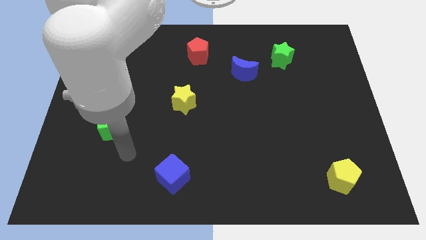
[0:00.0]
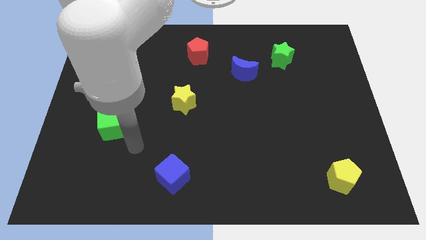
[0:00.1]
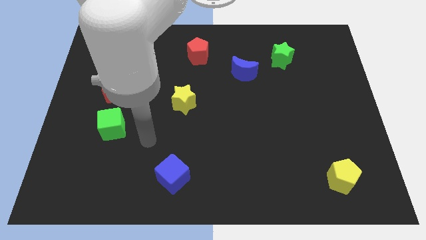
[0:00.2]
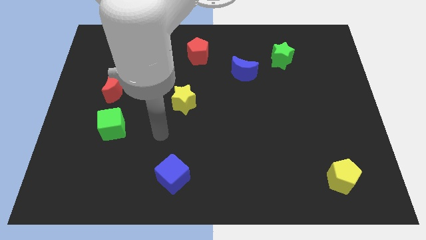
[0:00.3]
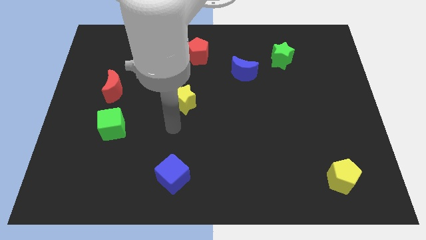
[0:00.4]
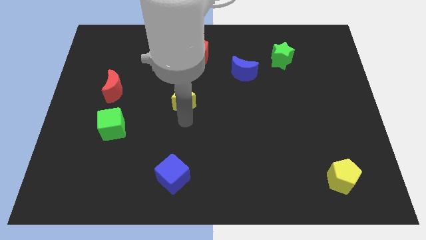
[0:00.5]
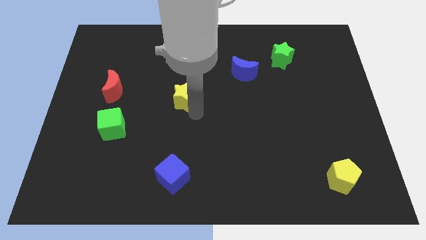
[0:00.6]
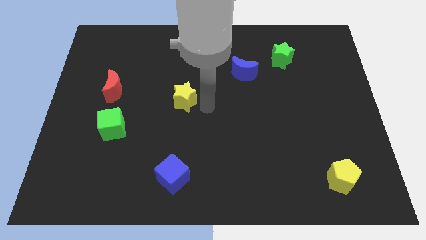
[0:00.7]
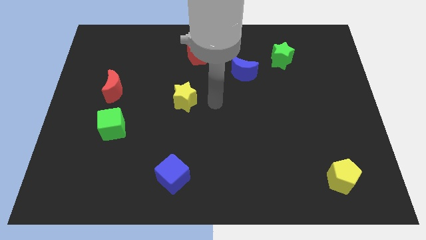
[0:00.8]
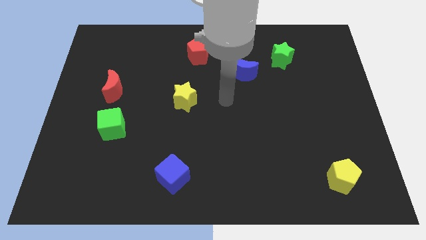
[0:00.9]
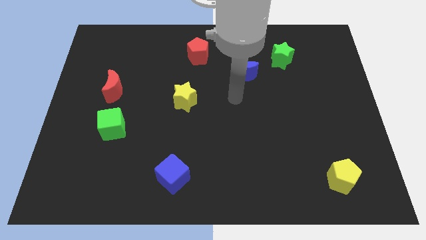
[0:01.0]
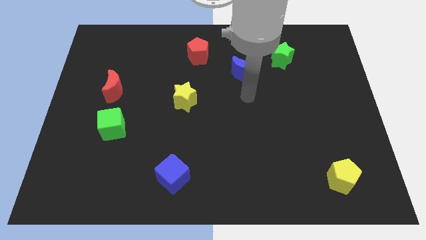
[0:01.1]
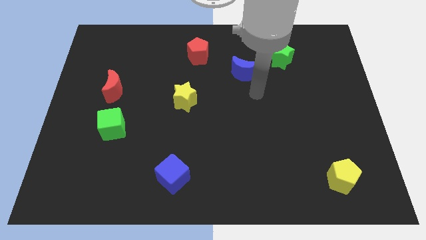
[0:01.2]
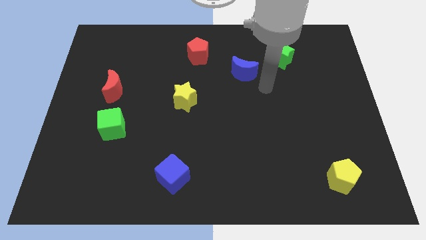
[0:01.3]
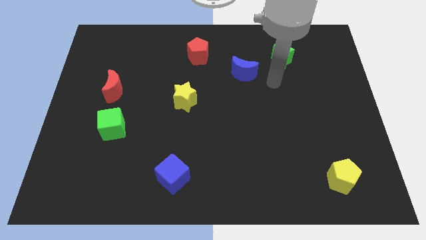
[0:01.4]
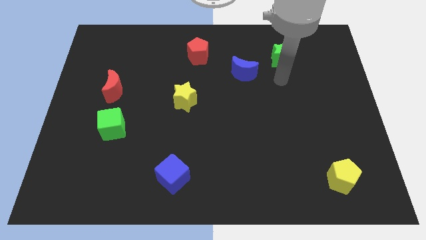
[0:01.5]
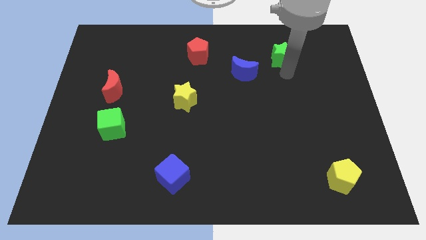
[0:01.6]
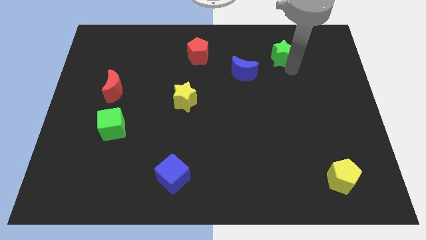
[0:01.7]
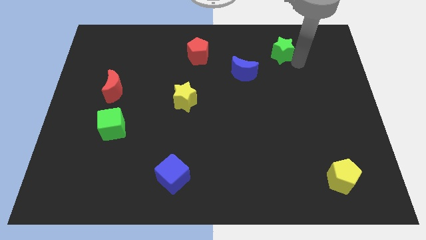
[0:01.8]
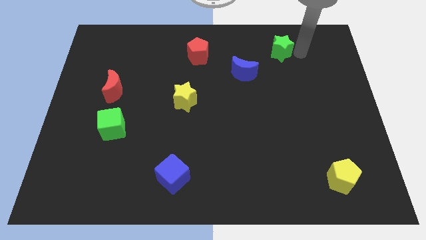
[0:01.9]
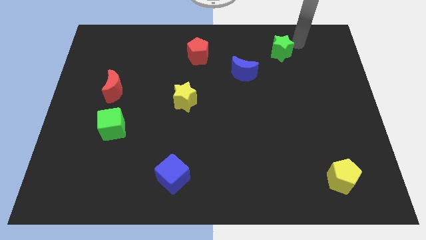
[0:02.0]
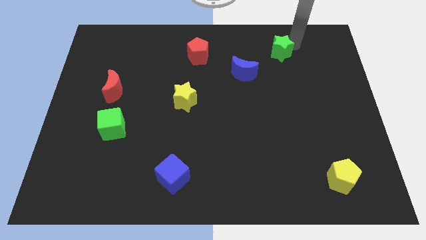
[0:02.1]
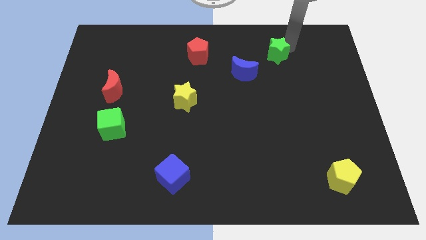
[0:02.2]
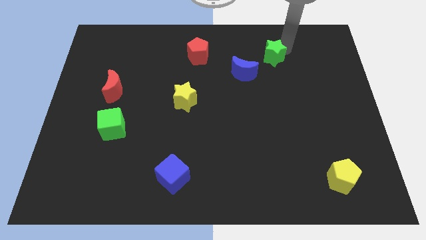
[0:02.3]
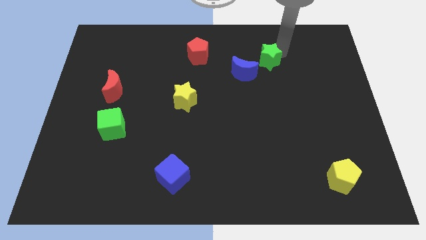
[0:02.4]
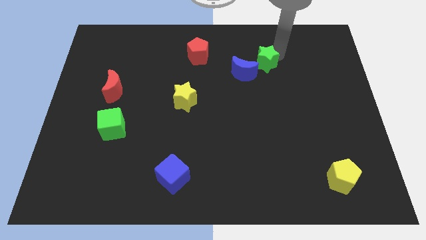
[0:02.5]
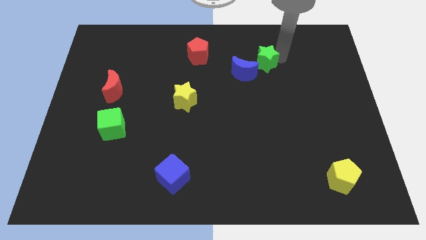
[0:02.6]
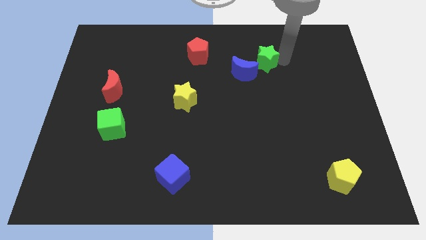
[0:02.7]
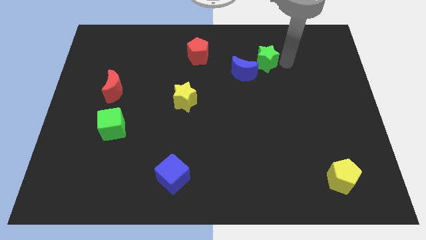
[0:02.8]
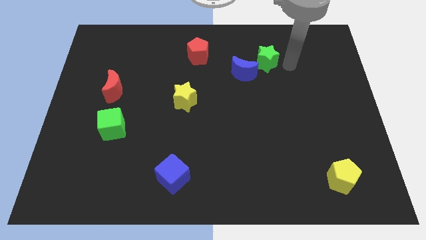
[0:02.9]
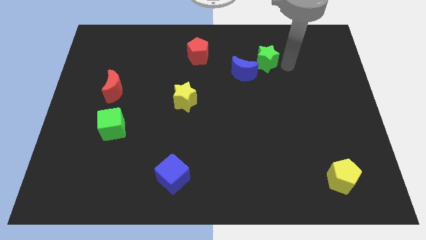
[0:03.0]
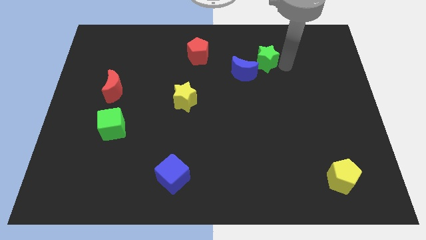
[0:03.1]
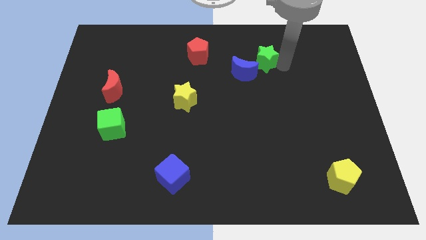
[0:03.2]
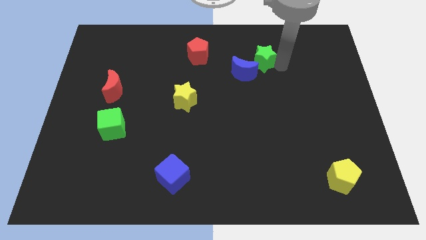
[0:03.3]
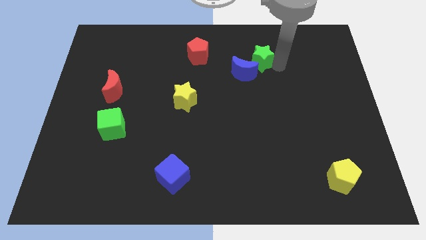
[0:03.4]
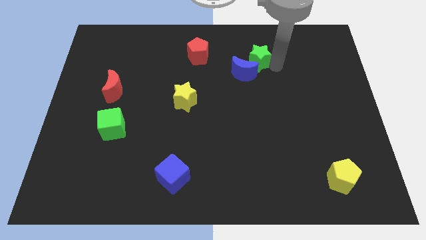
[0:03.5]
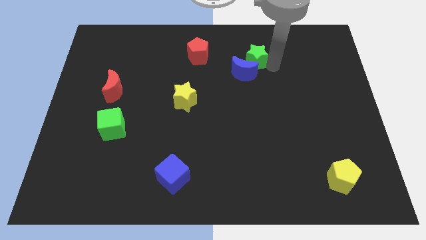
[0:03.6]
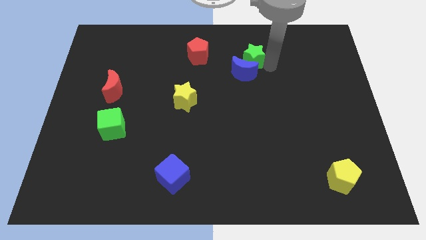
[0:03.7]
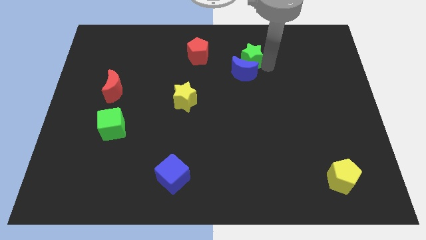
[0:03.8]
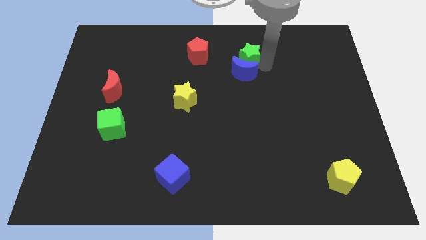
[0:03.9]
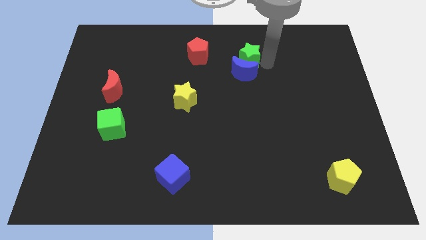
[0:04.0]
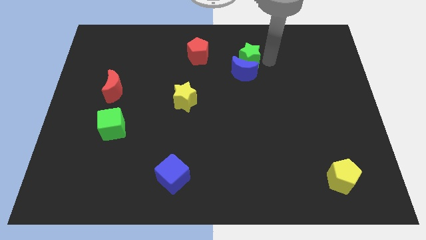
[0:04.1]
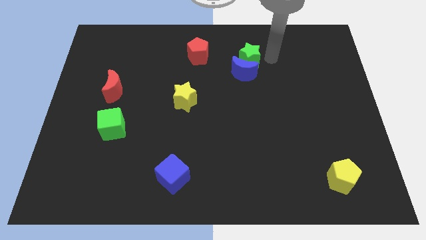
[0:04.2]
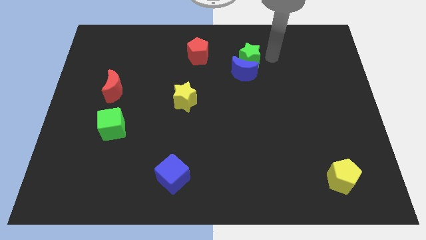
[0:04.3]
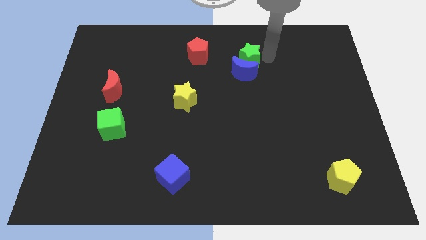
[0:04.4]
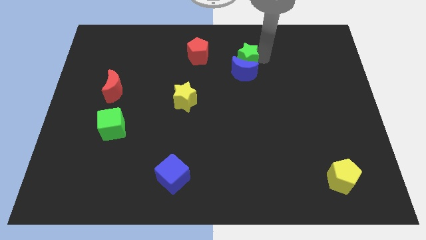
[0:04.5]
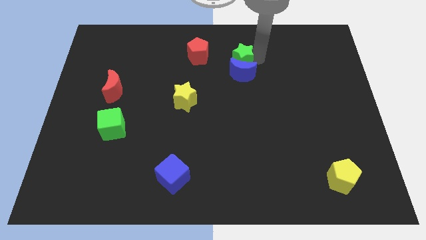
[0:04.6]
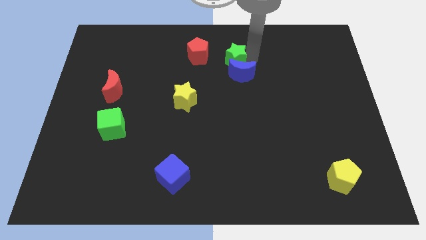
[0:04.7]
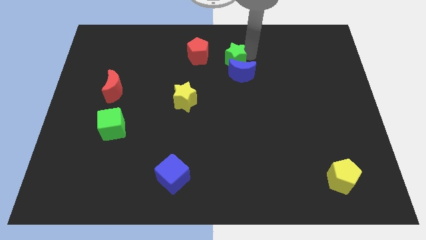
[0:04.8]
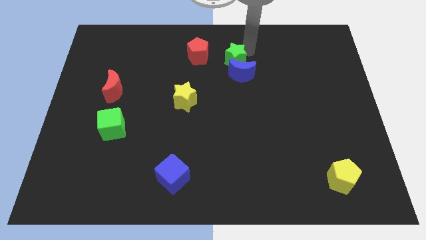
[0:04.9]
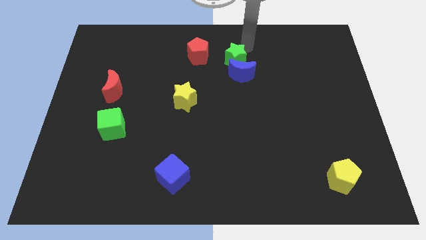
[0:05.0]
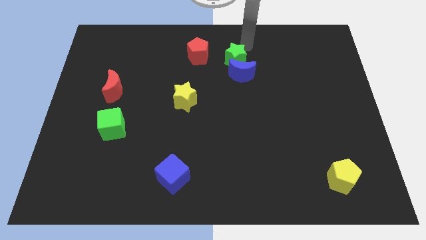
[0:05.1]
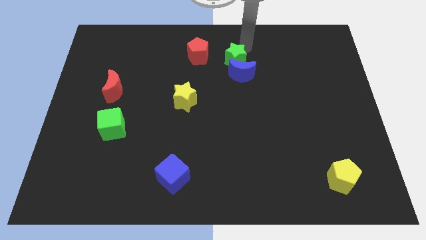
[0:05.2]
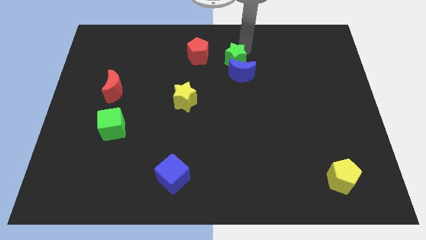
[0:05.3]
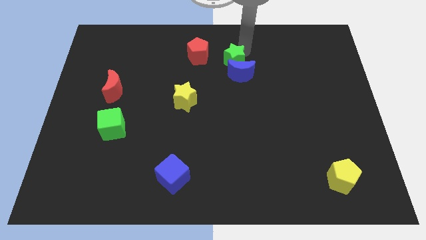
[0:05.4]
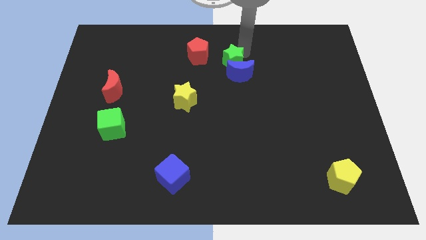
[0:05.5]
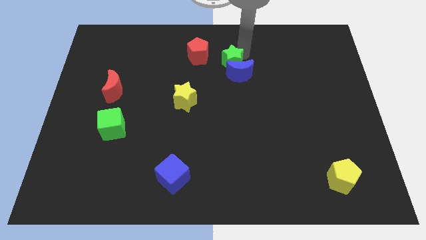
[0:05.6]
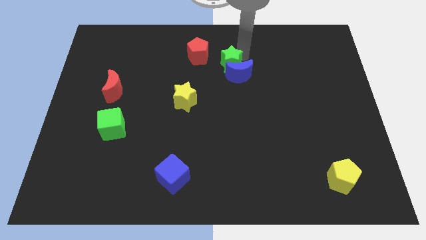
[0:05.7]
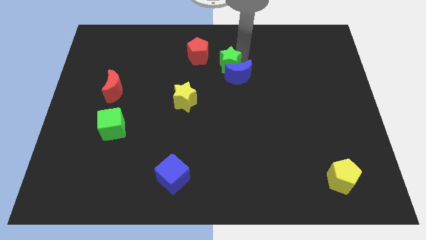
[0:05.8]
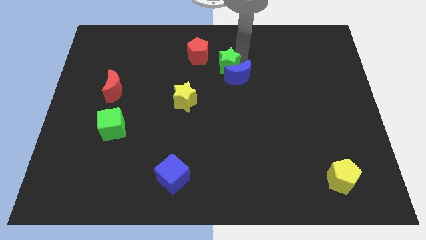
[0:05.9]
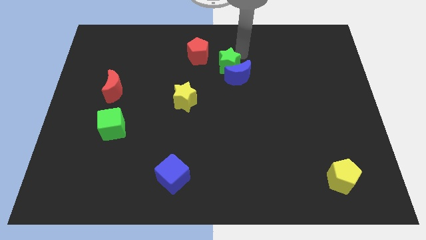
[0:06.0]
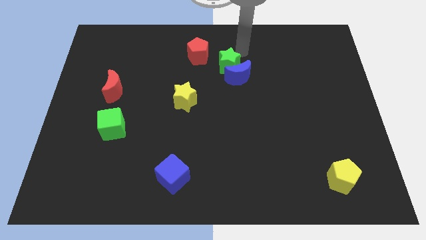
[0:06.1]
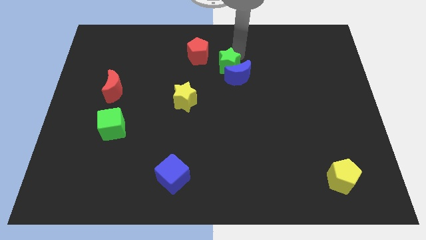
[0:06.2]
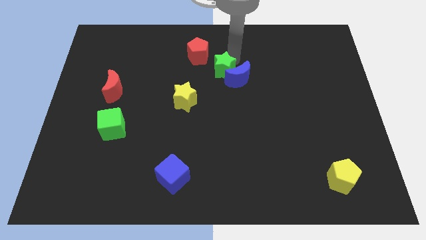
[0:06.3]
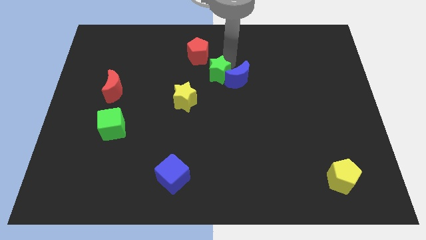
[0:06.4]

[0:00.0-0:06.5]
put the green star diagonally up and to the right of the yellow star
